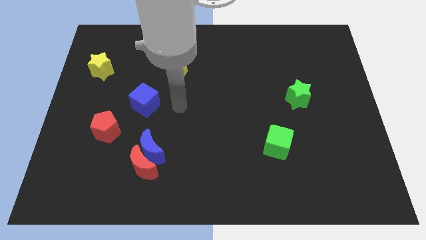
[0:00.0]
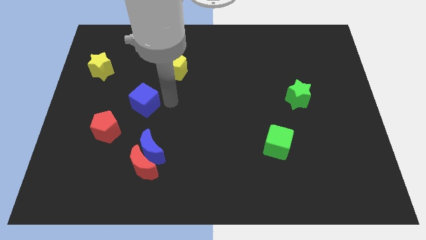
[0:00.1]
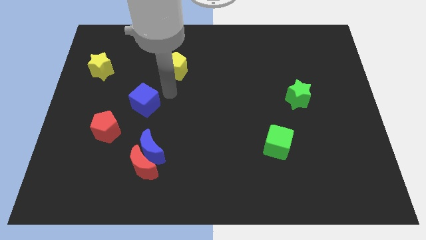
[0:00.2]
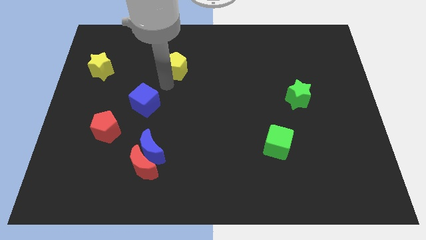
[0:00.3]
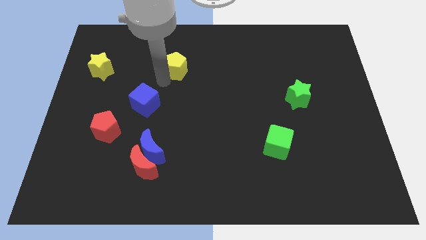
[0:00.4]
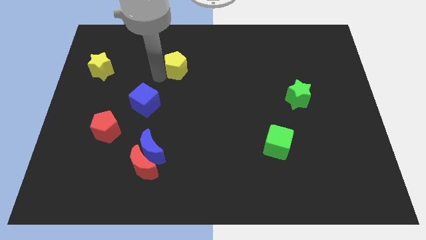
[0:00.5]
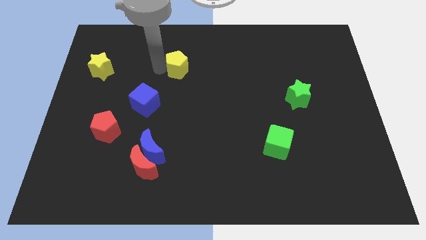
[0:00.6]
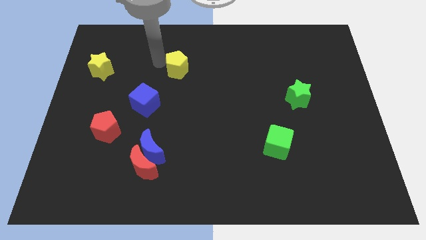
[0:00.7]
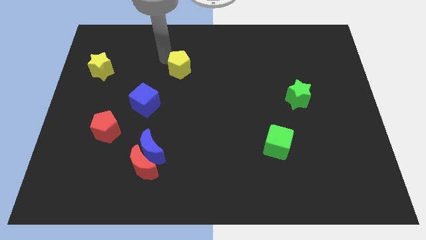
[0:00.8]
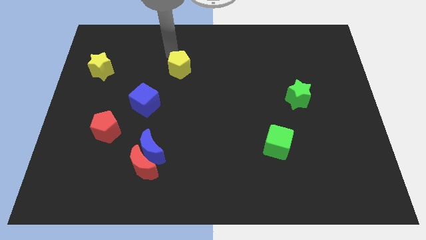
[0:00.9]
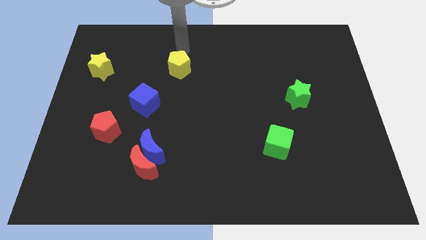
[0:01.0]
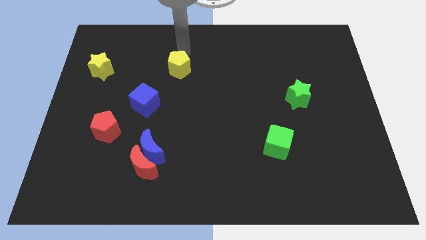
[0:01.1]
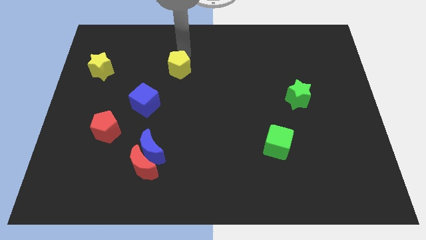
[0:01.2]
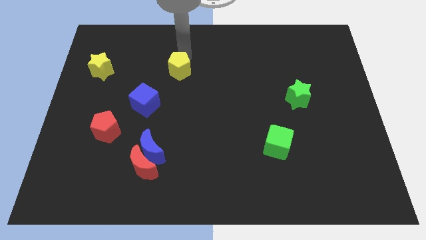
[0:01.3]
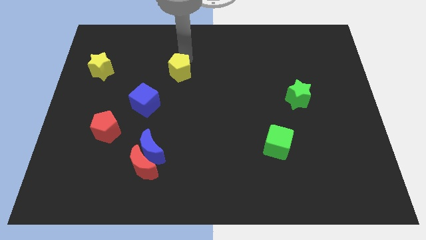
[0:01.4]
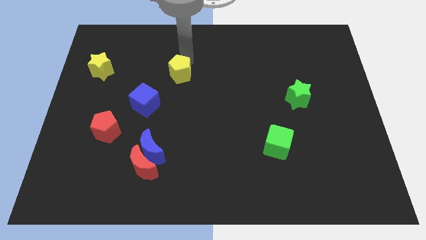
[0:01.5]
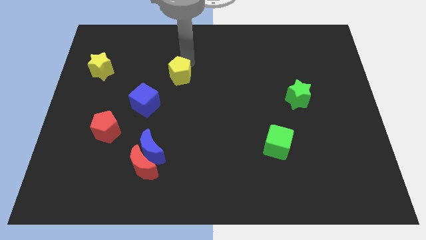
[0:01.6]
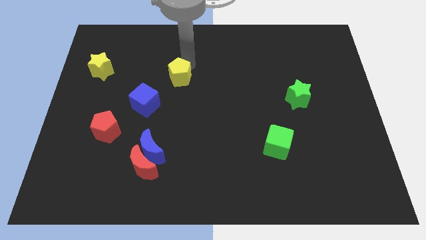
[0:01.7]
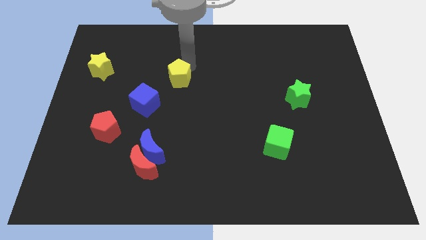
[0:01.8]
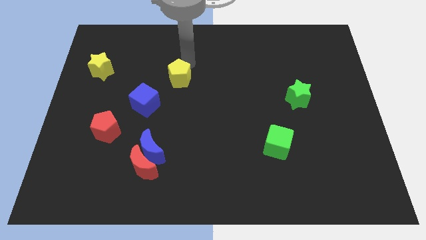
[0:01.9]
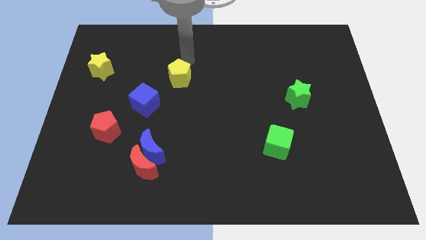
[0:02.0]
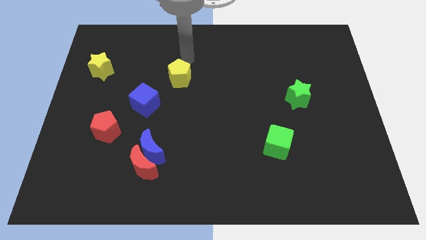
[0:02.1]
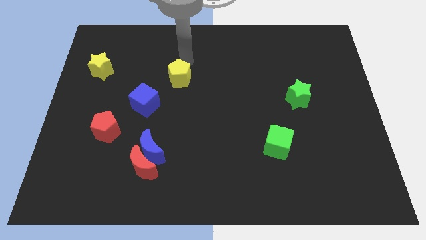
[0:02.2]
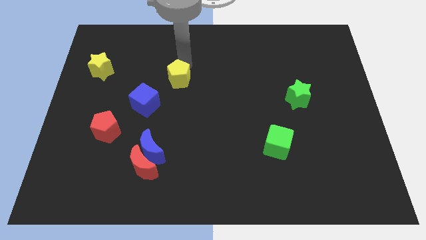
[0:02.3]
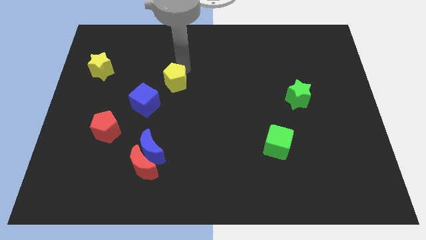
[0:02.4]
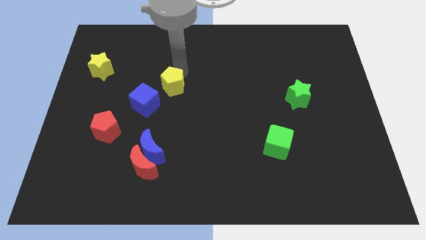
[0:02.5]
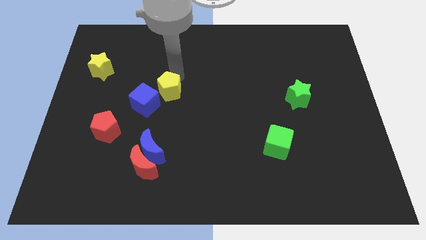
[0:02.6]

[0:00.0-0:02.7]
slightly slide the yellow pentagon down

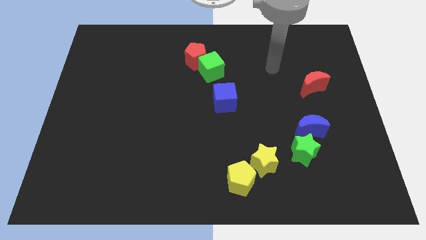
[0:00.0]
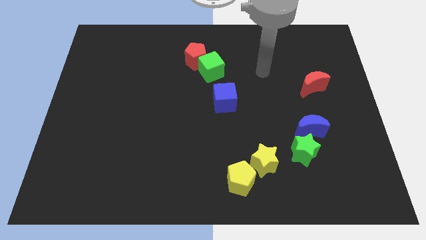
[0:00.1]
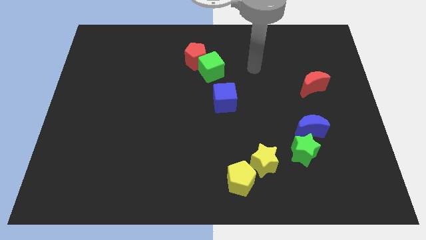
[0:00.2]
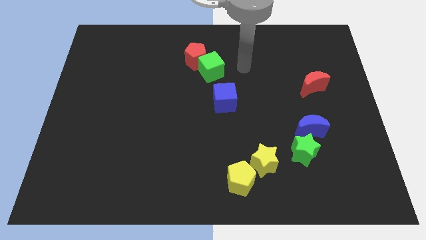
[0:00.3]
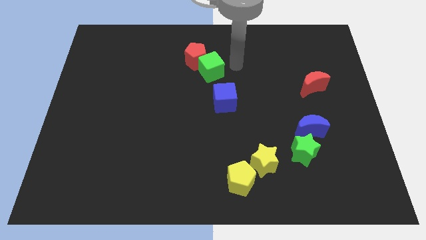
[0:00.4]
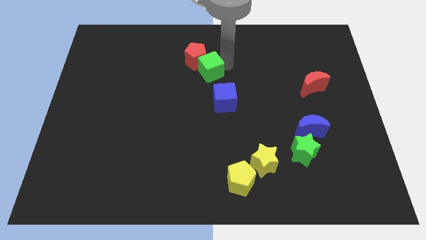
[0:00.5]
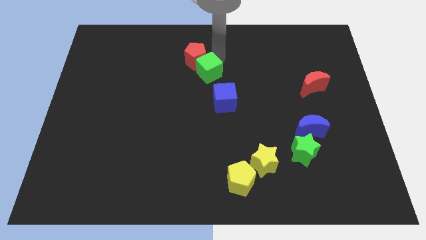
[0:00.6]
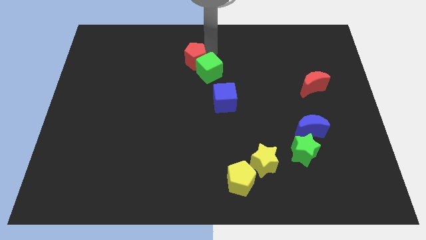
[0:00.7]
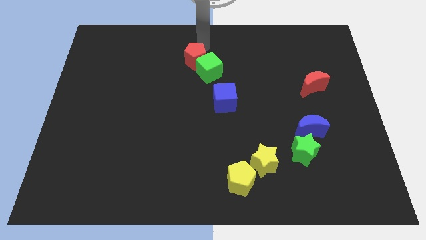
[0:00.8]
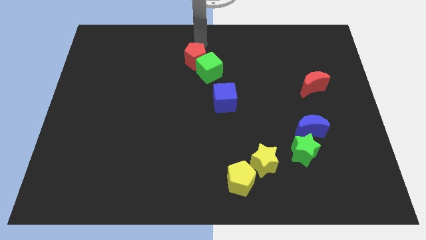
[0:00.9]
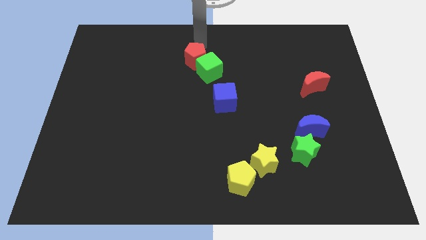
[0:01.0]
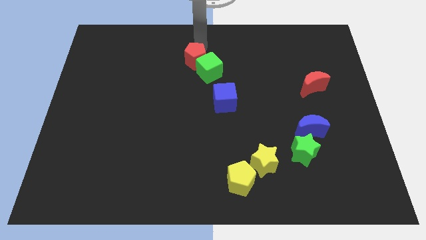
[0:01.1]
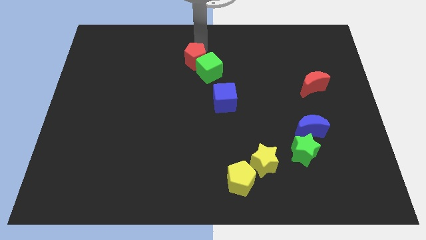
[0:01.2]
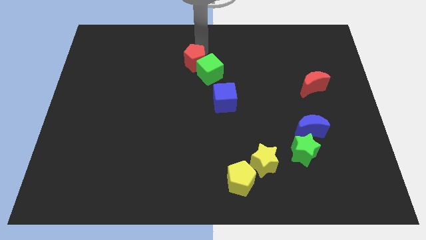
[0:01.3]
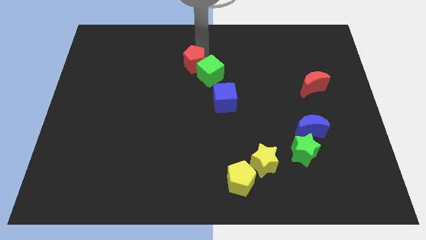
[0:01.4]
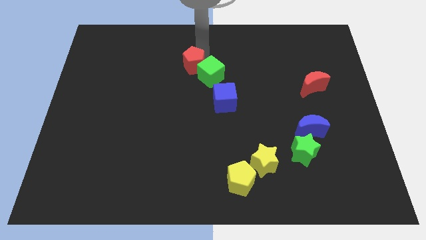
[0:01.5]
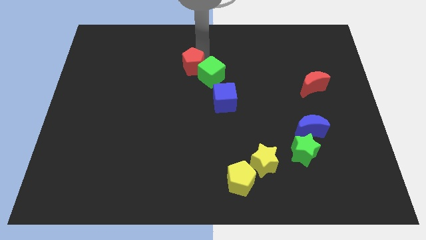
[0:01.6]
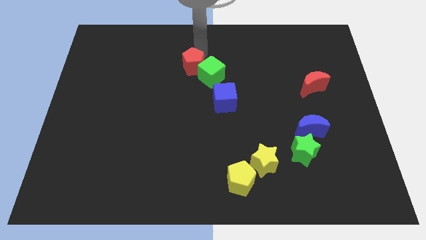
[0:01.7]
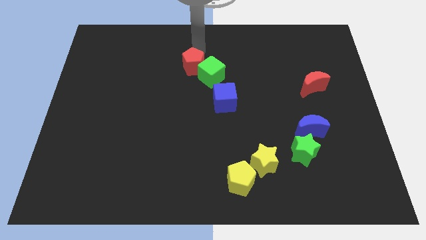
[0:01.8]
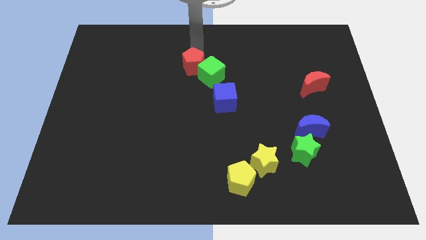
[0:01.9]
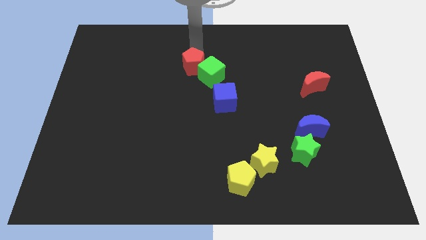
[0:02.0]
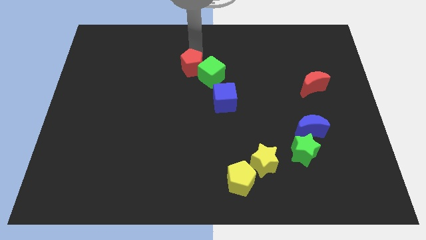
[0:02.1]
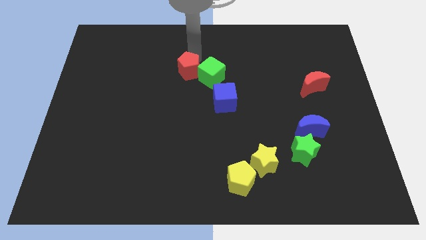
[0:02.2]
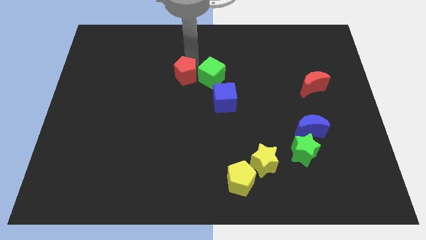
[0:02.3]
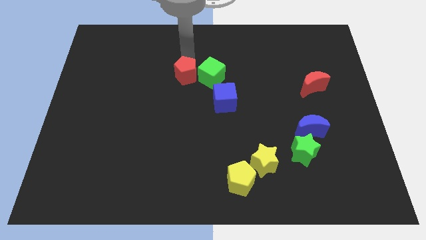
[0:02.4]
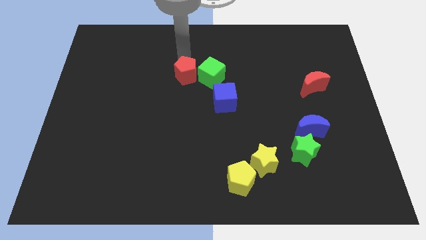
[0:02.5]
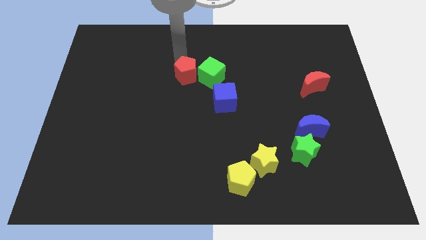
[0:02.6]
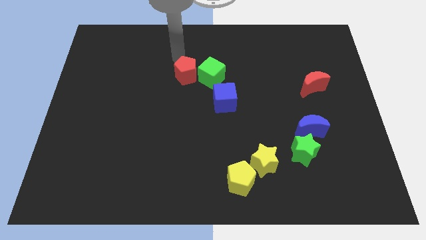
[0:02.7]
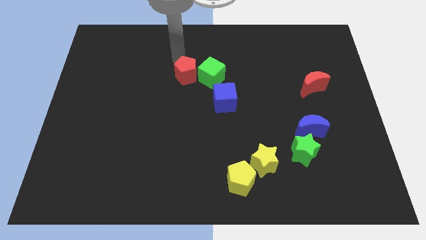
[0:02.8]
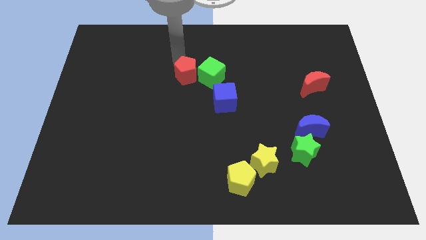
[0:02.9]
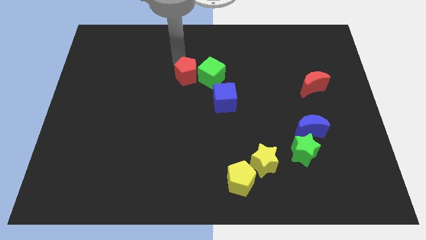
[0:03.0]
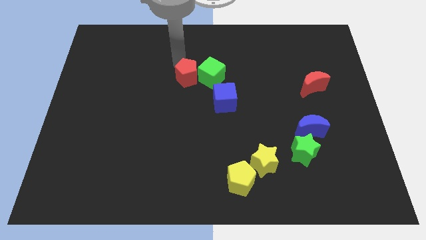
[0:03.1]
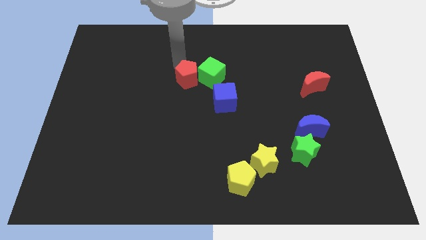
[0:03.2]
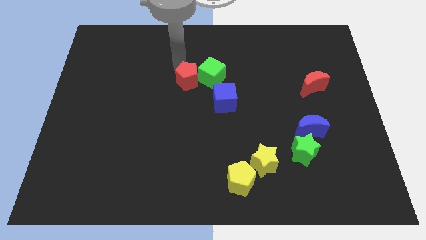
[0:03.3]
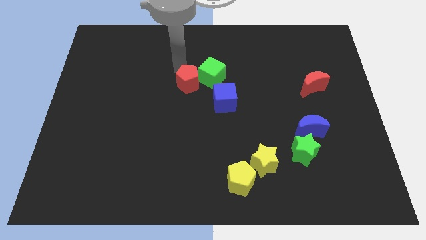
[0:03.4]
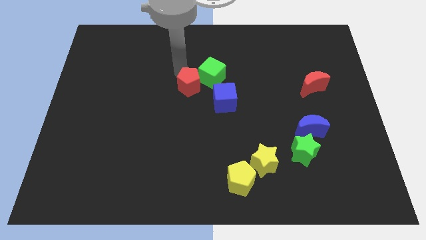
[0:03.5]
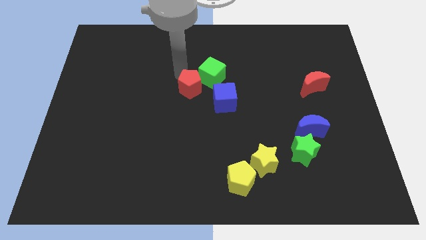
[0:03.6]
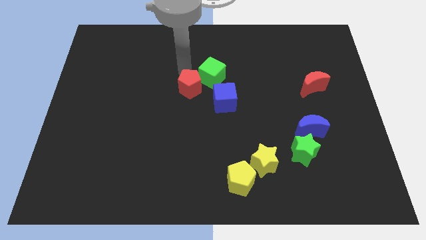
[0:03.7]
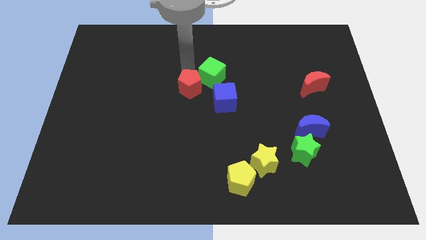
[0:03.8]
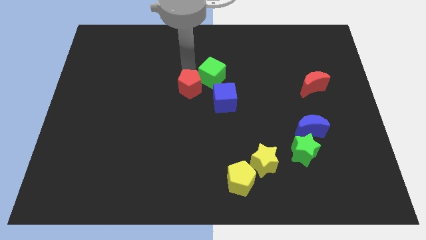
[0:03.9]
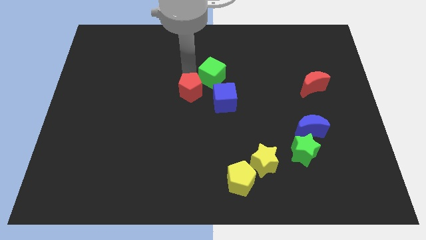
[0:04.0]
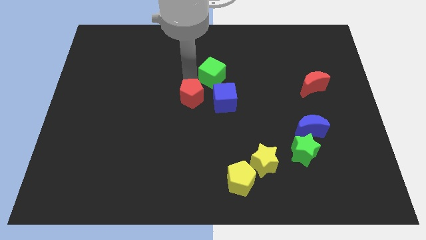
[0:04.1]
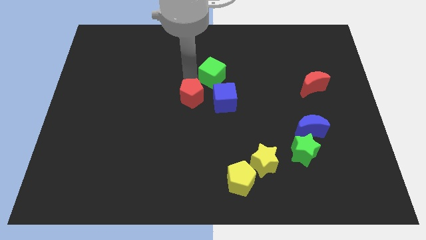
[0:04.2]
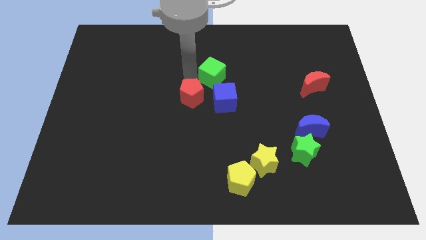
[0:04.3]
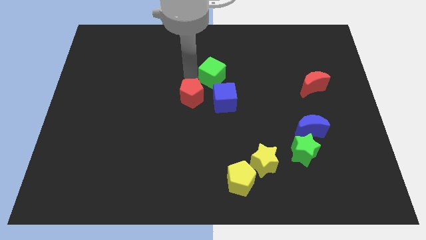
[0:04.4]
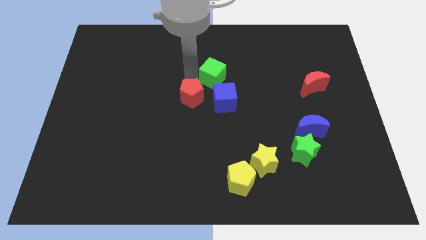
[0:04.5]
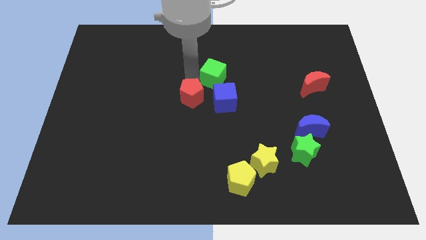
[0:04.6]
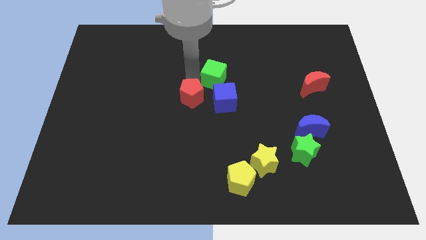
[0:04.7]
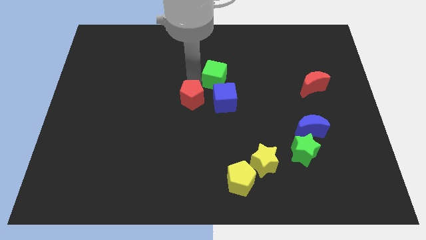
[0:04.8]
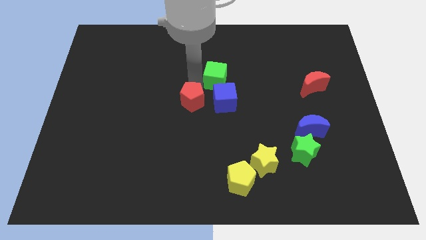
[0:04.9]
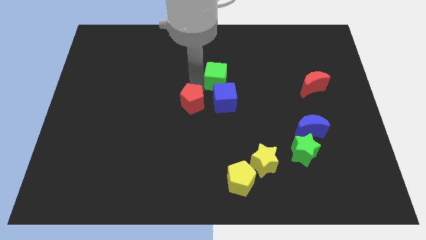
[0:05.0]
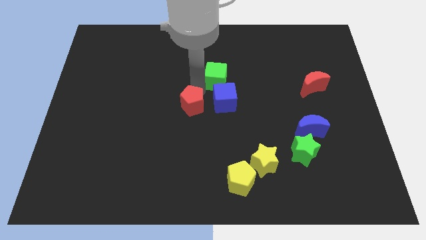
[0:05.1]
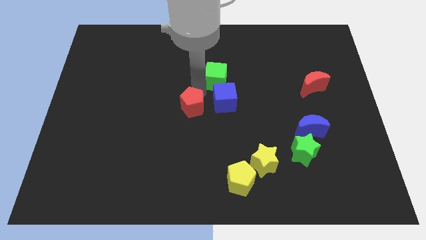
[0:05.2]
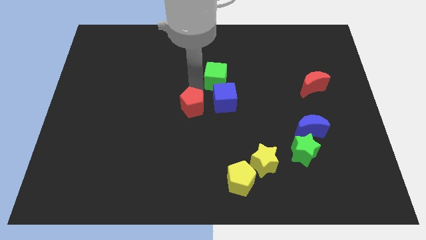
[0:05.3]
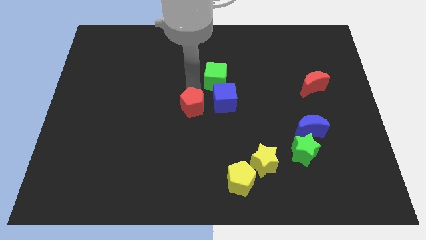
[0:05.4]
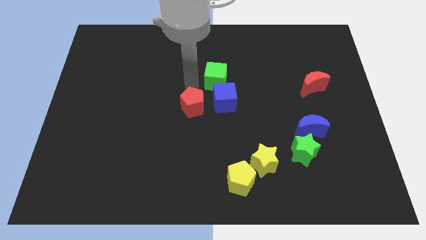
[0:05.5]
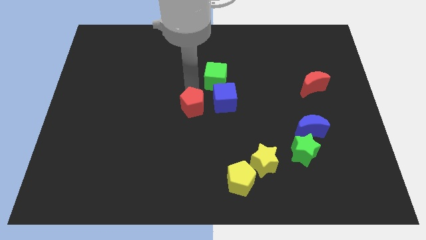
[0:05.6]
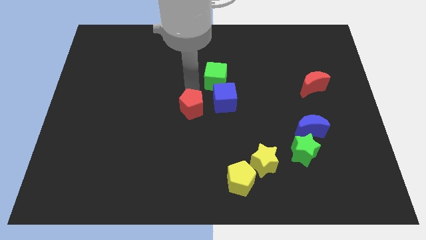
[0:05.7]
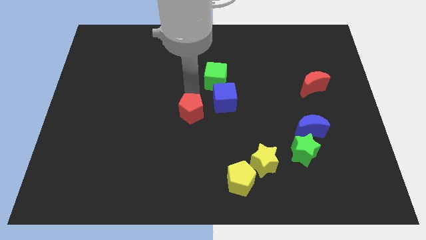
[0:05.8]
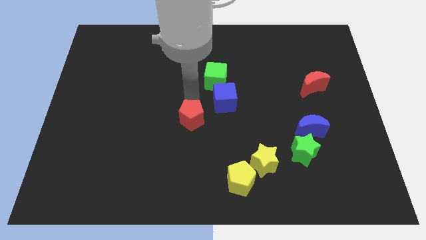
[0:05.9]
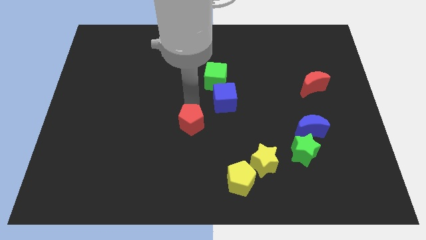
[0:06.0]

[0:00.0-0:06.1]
move the red pentagon downwards
